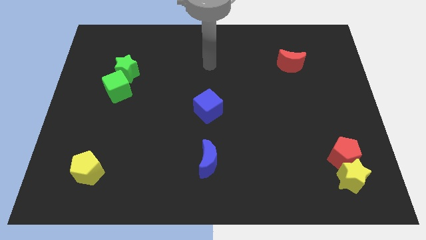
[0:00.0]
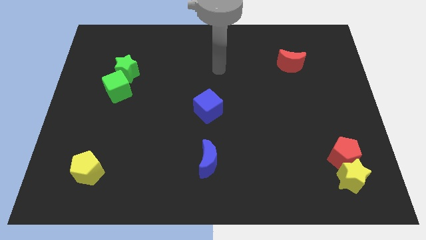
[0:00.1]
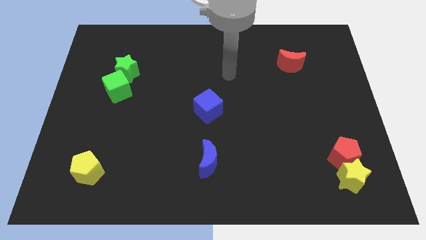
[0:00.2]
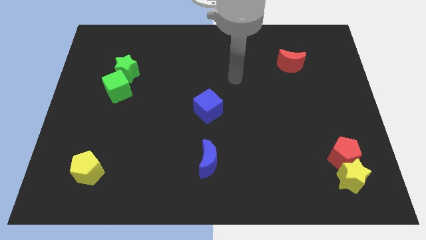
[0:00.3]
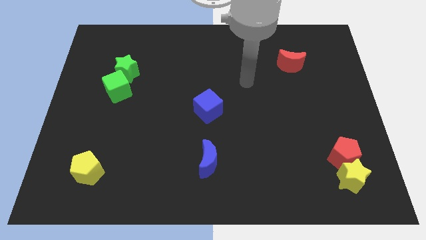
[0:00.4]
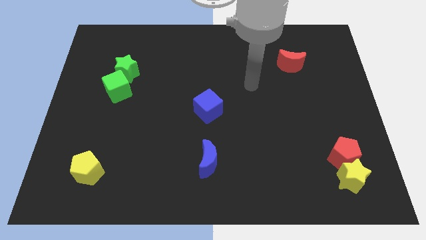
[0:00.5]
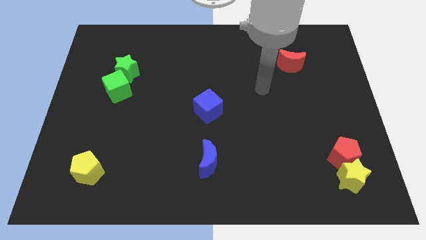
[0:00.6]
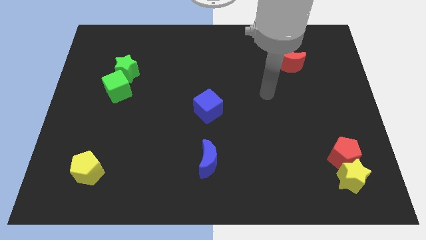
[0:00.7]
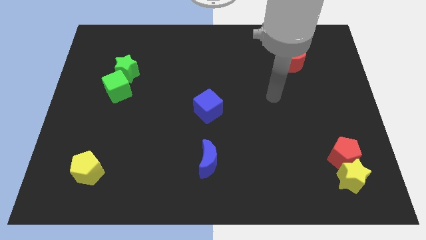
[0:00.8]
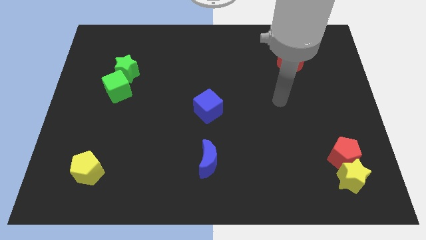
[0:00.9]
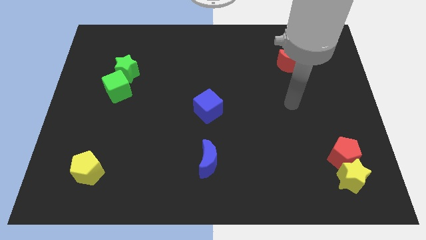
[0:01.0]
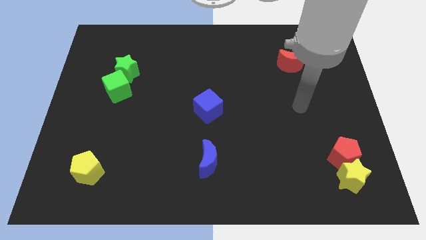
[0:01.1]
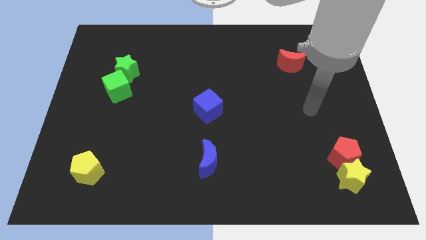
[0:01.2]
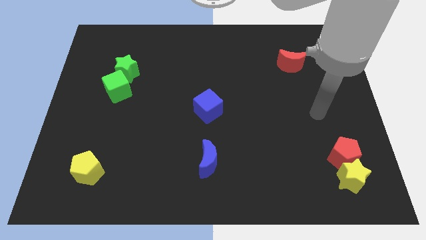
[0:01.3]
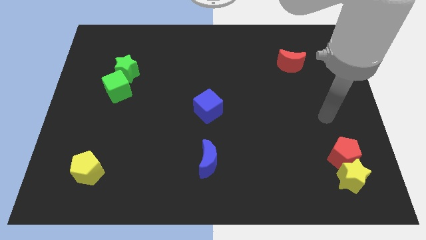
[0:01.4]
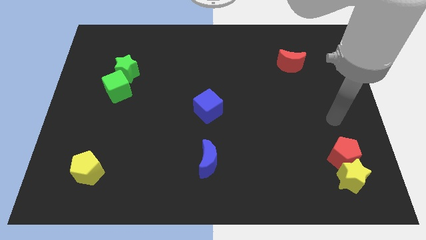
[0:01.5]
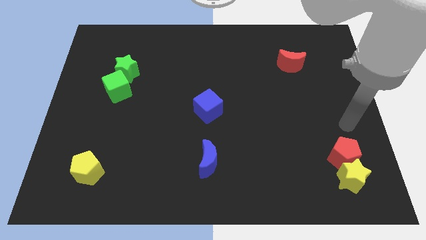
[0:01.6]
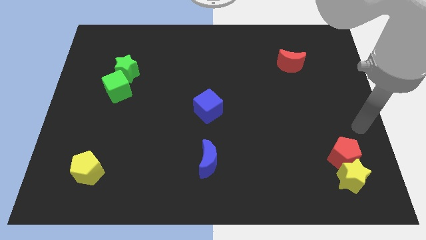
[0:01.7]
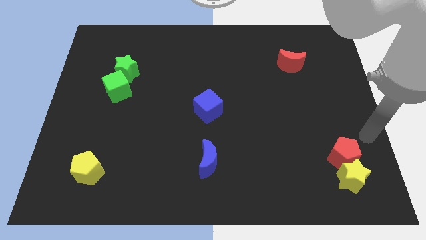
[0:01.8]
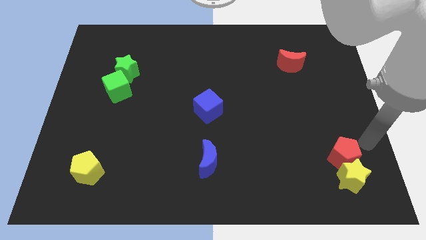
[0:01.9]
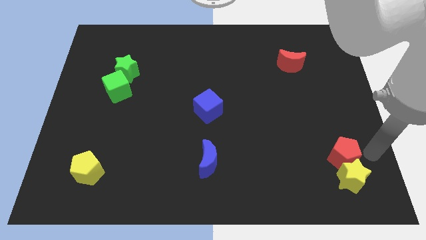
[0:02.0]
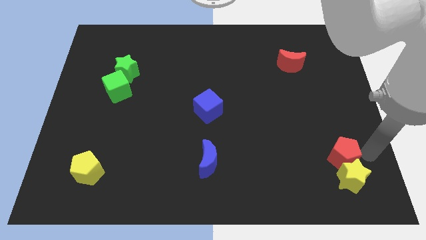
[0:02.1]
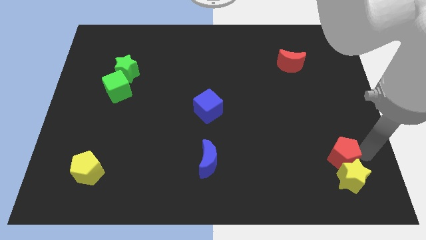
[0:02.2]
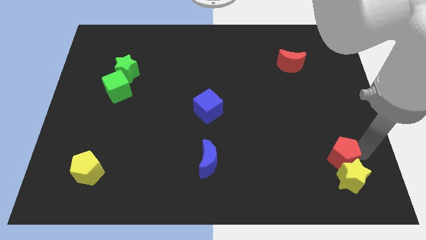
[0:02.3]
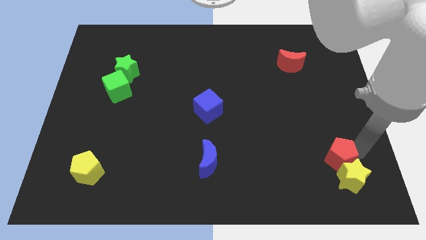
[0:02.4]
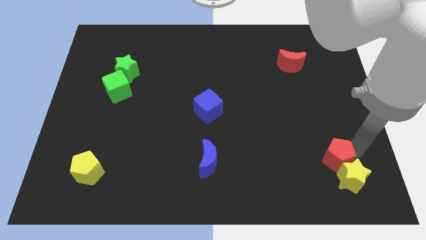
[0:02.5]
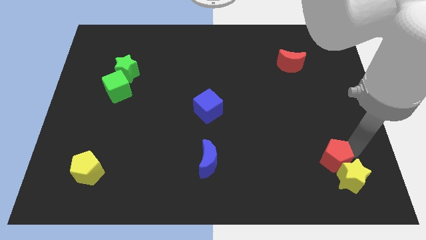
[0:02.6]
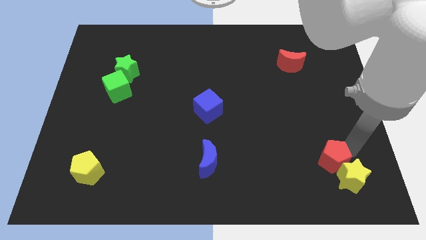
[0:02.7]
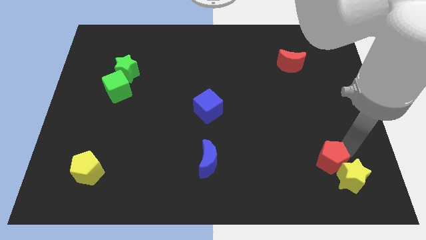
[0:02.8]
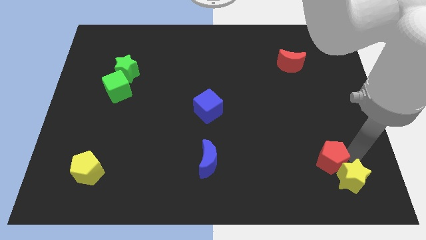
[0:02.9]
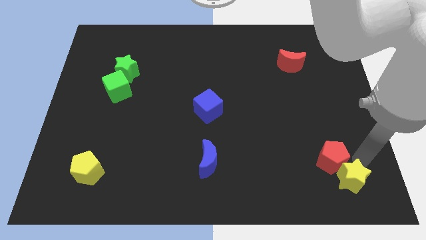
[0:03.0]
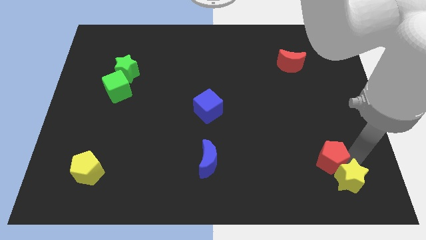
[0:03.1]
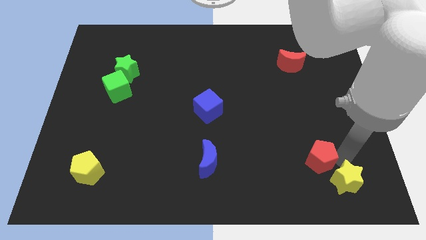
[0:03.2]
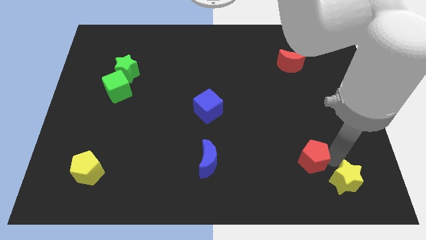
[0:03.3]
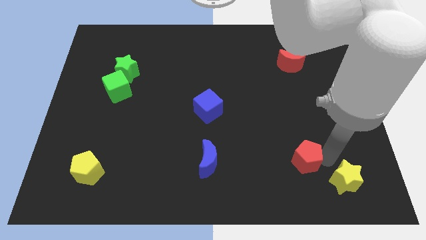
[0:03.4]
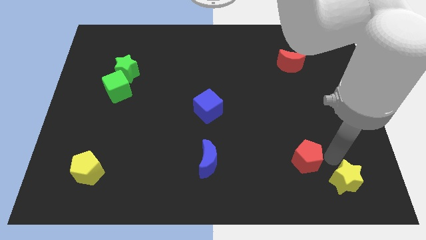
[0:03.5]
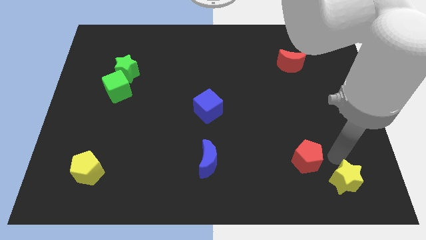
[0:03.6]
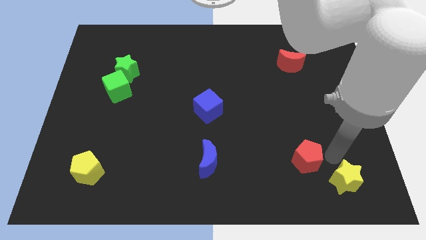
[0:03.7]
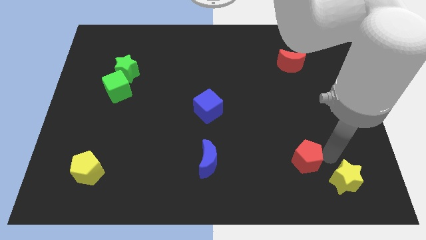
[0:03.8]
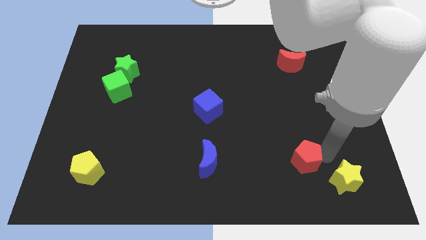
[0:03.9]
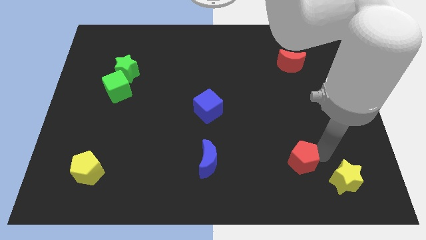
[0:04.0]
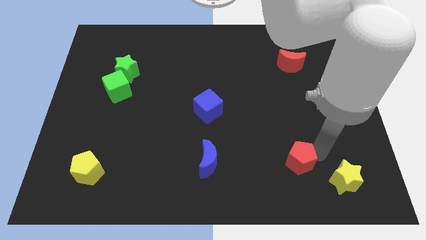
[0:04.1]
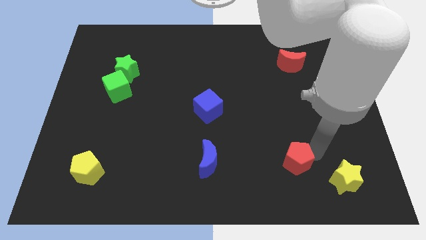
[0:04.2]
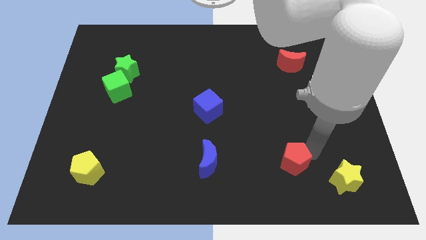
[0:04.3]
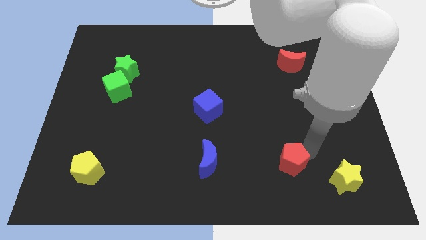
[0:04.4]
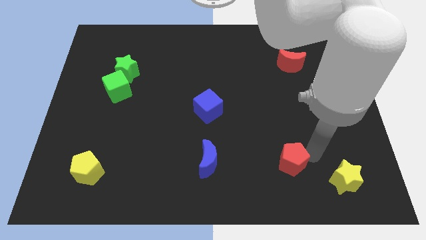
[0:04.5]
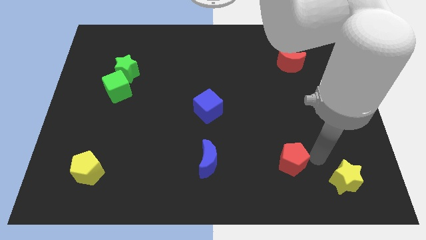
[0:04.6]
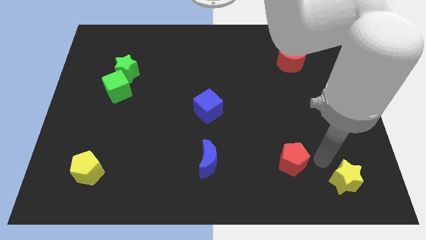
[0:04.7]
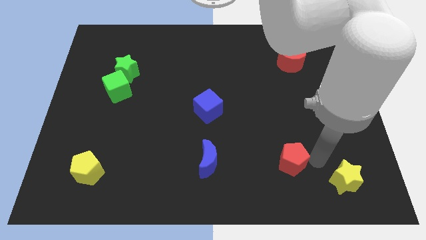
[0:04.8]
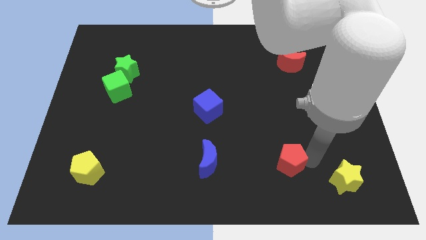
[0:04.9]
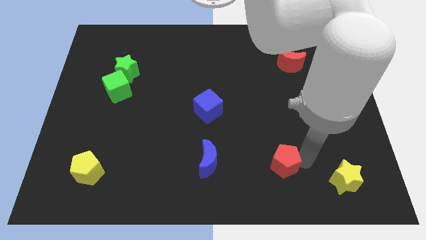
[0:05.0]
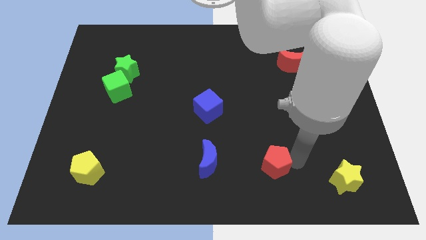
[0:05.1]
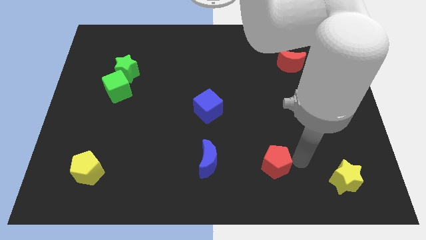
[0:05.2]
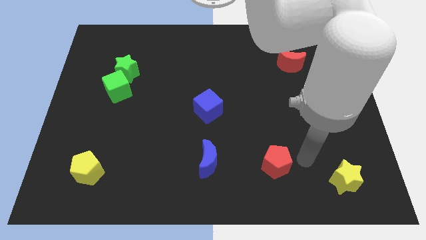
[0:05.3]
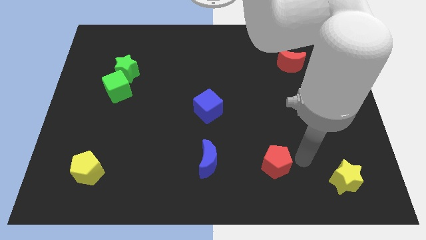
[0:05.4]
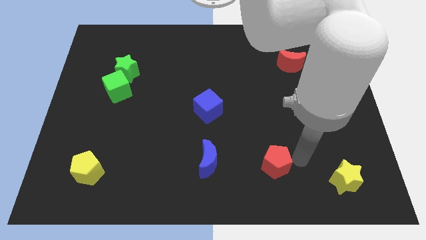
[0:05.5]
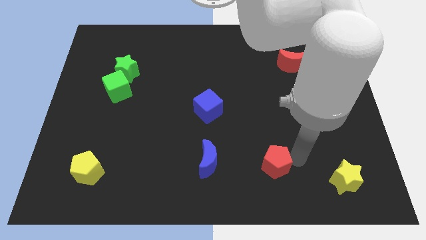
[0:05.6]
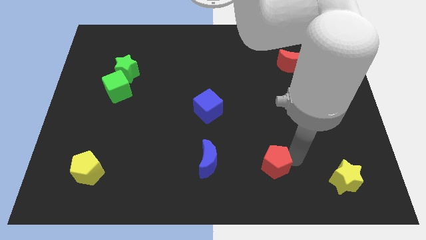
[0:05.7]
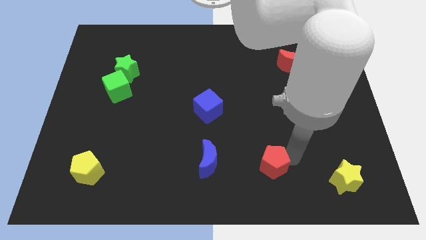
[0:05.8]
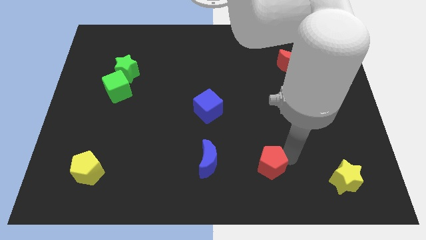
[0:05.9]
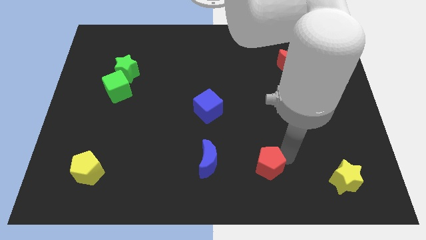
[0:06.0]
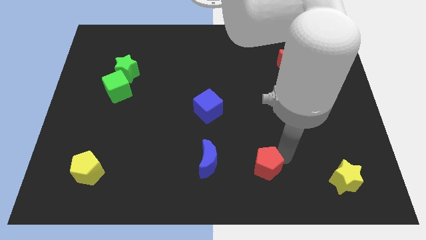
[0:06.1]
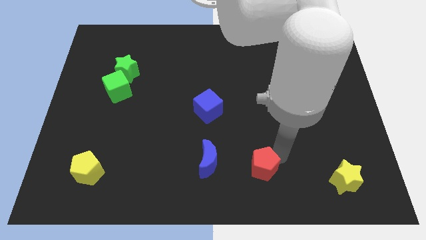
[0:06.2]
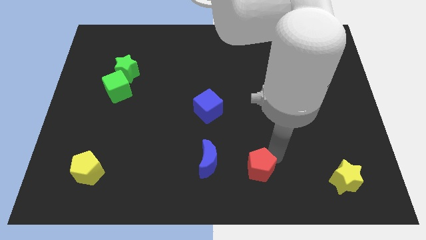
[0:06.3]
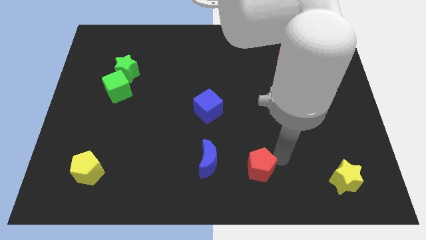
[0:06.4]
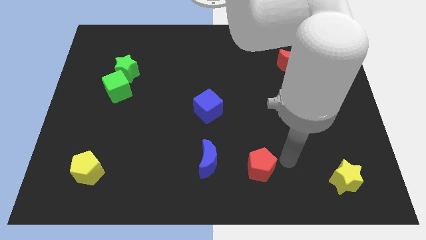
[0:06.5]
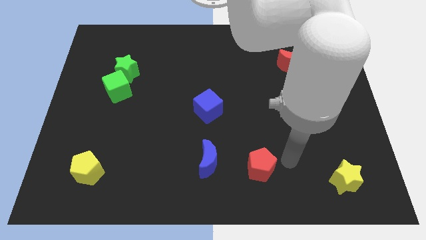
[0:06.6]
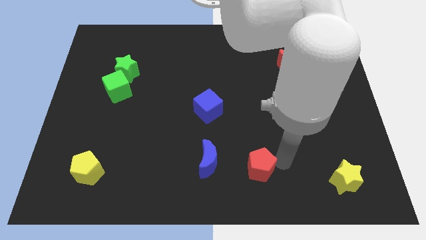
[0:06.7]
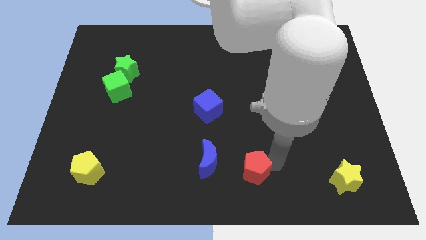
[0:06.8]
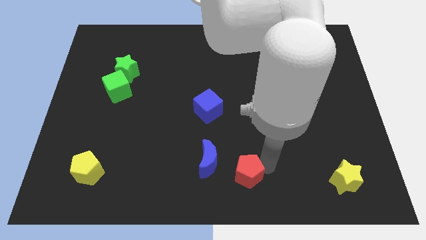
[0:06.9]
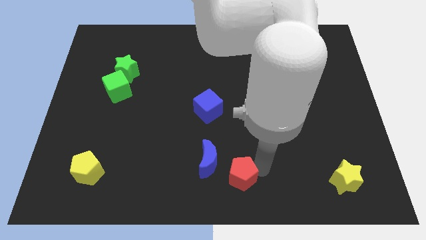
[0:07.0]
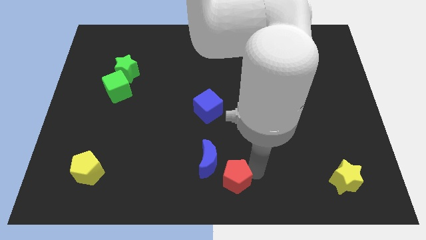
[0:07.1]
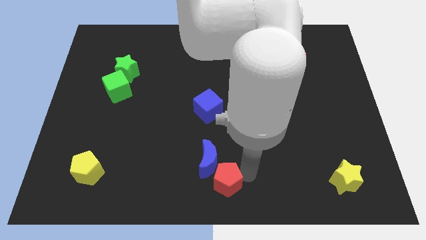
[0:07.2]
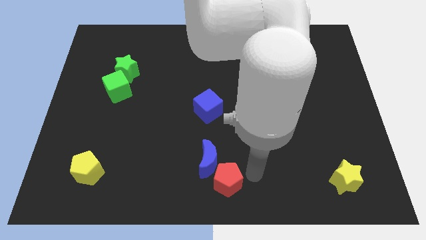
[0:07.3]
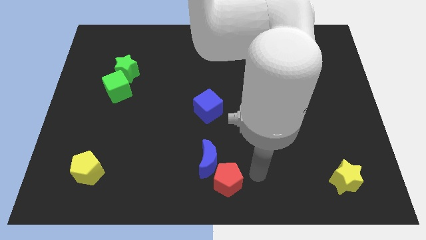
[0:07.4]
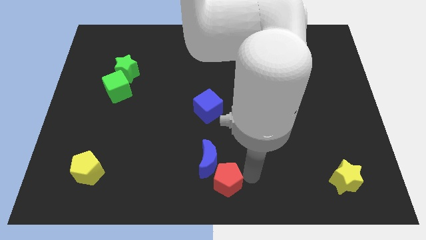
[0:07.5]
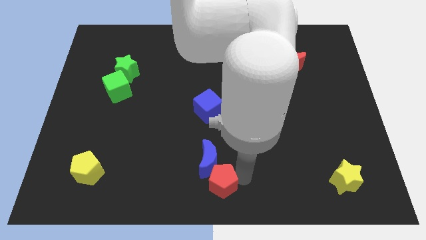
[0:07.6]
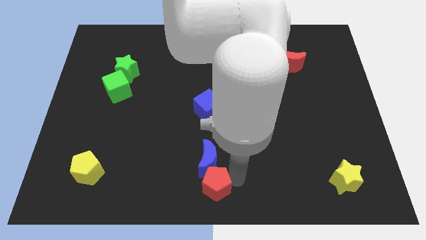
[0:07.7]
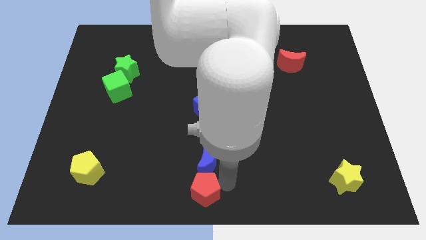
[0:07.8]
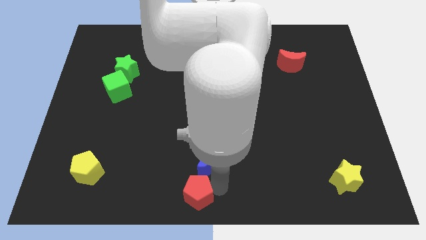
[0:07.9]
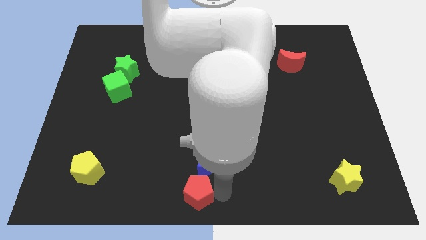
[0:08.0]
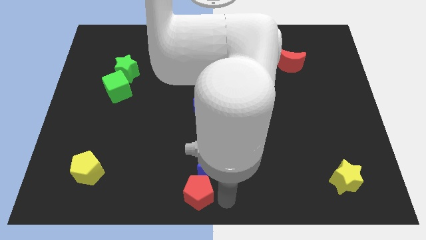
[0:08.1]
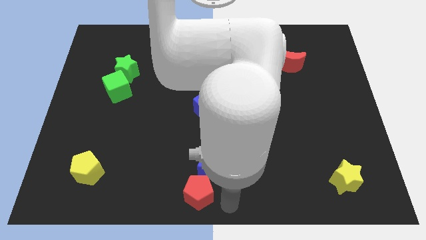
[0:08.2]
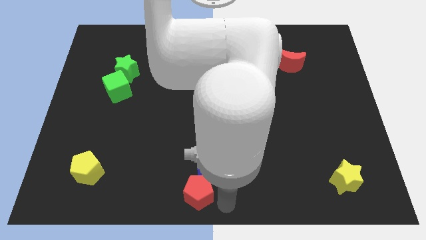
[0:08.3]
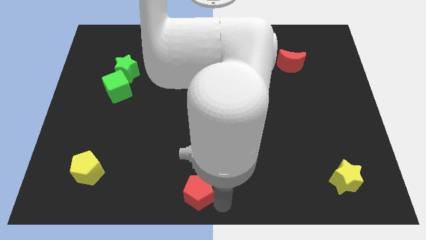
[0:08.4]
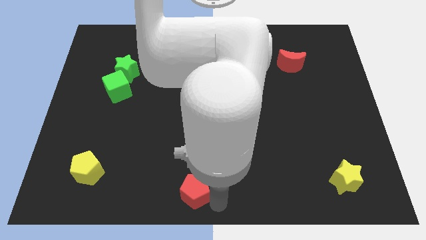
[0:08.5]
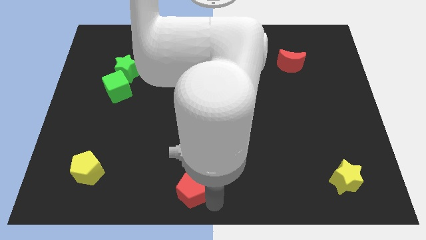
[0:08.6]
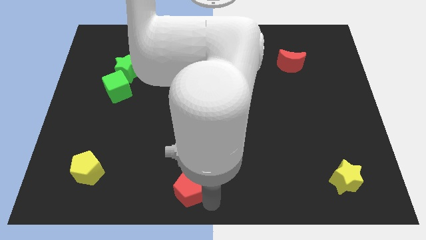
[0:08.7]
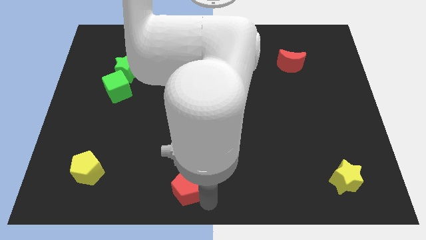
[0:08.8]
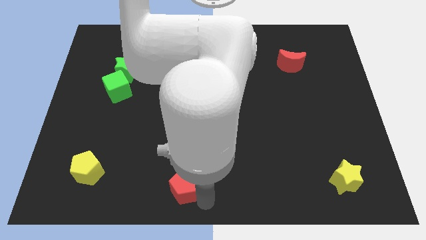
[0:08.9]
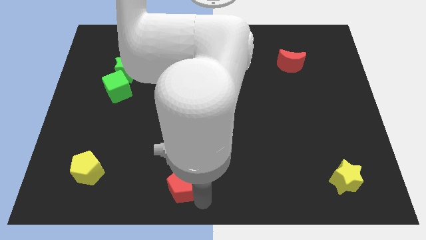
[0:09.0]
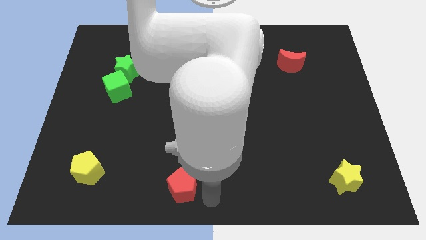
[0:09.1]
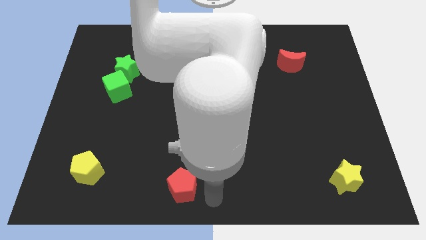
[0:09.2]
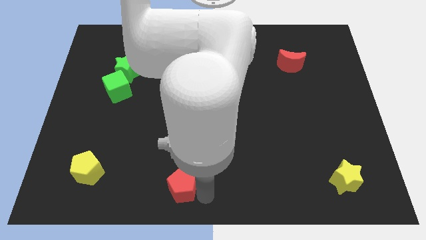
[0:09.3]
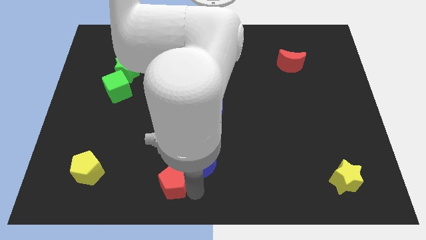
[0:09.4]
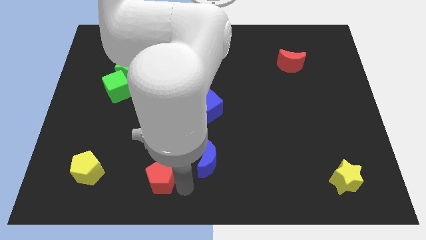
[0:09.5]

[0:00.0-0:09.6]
put the red pentagon just right of the yellow pentagon
